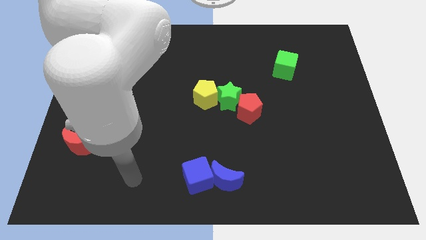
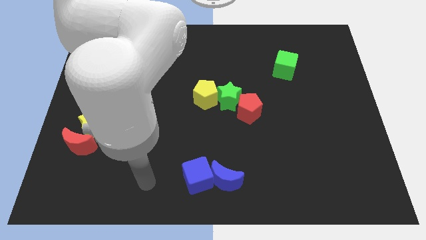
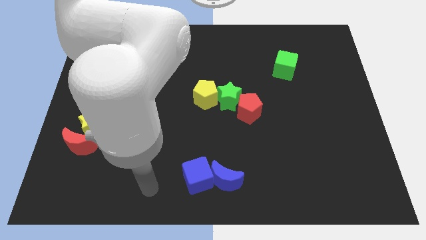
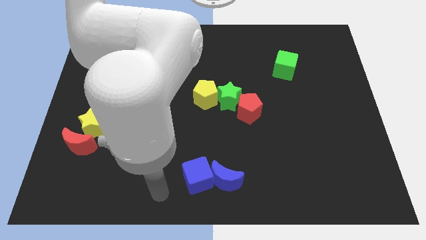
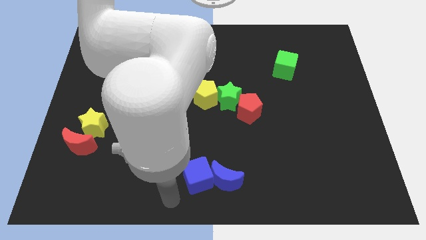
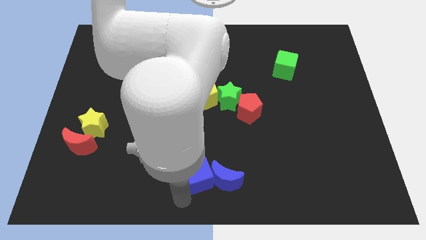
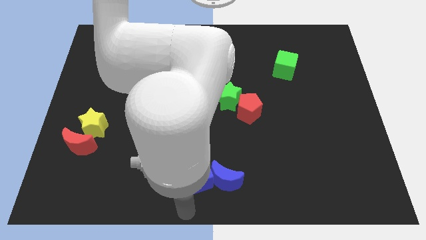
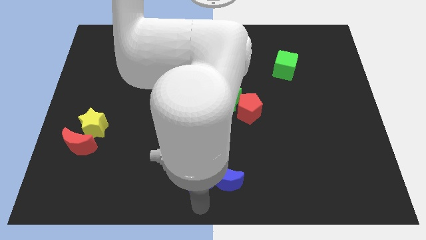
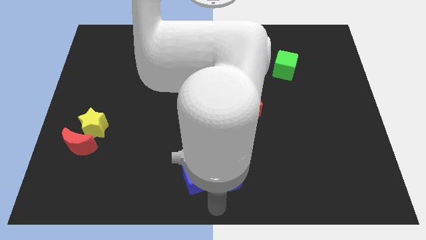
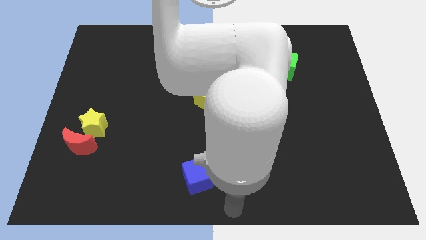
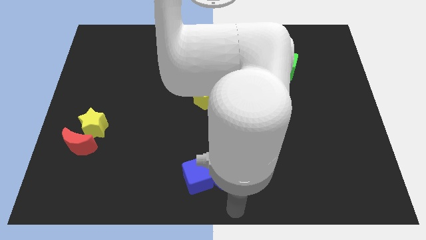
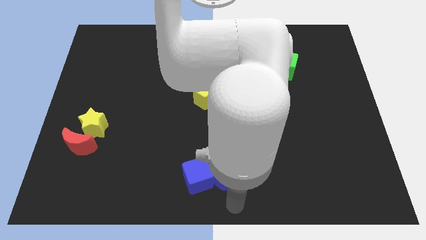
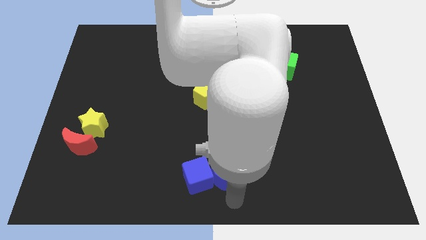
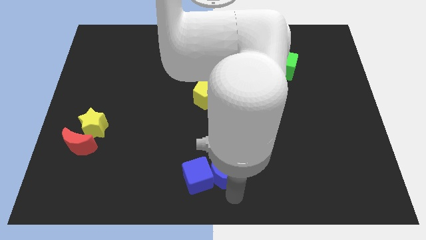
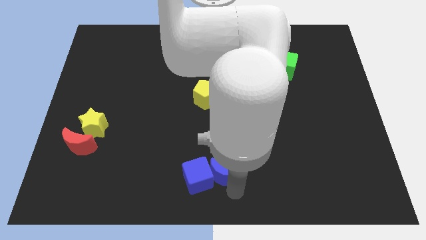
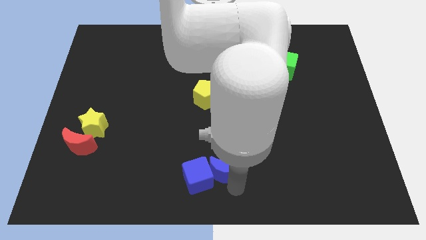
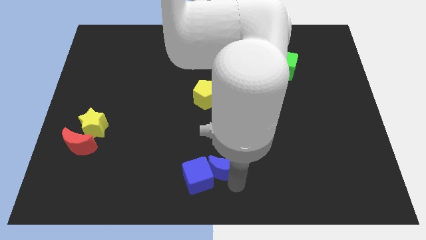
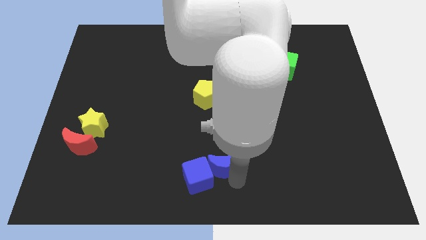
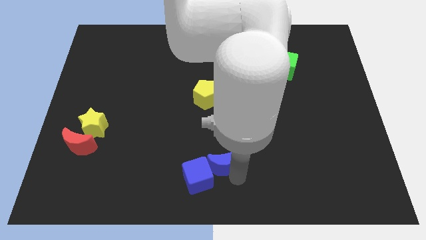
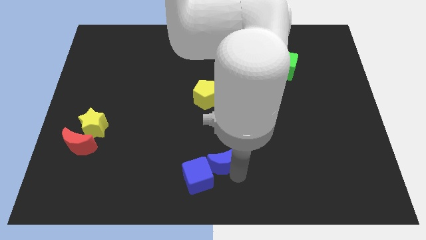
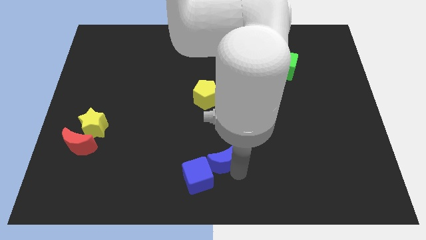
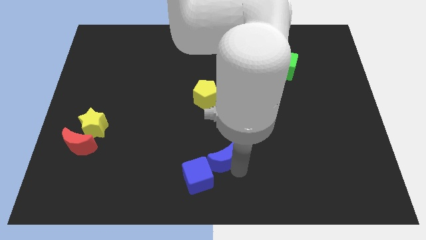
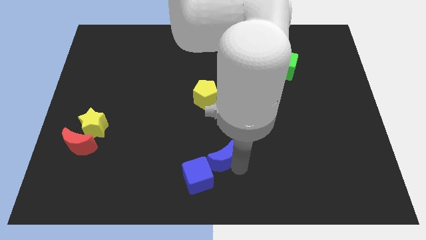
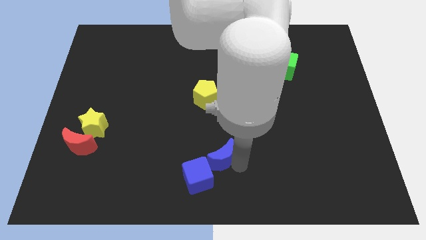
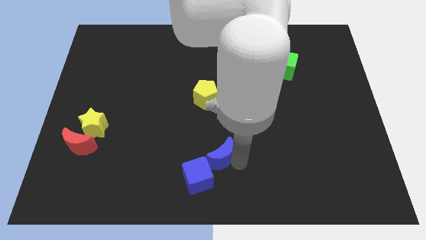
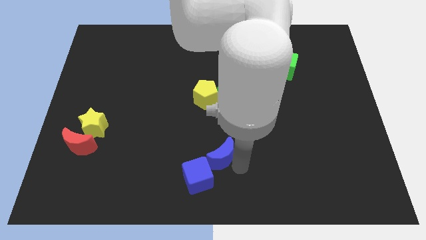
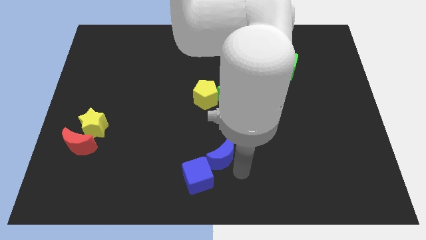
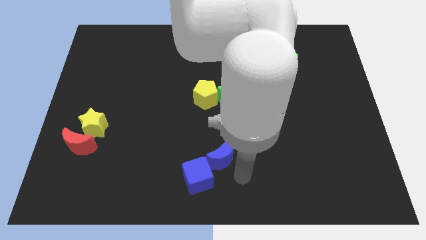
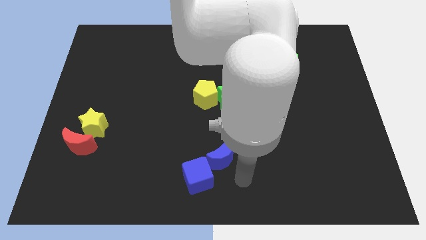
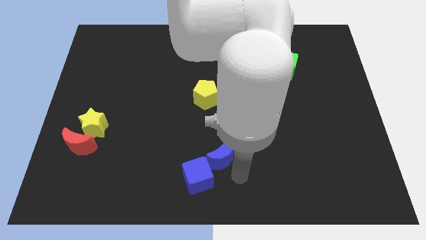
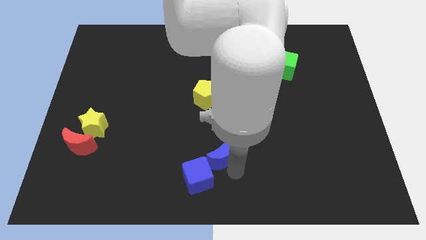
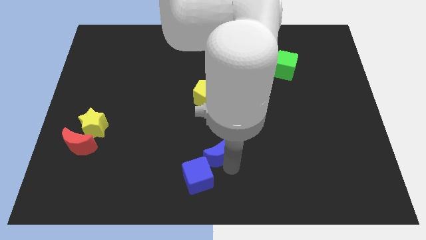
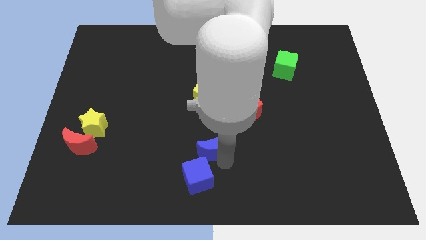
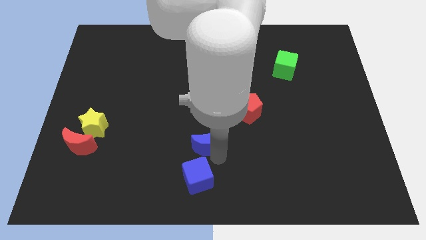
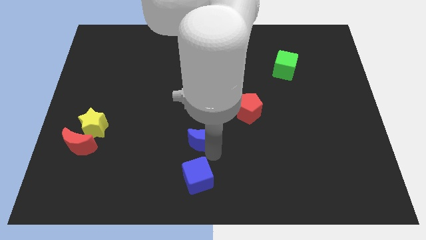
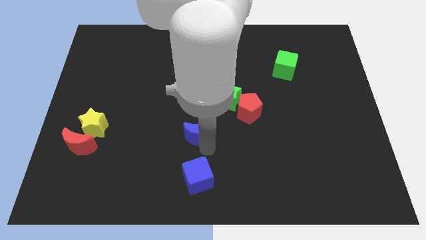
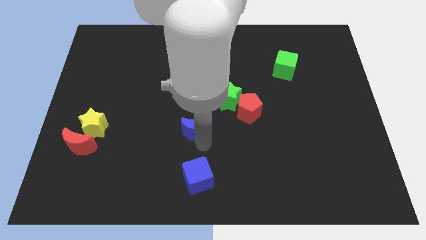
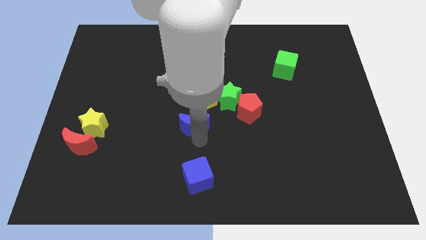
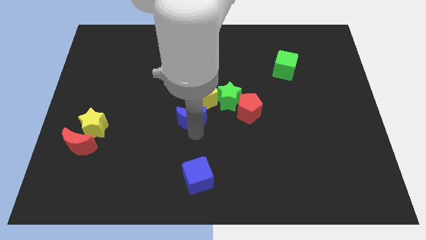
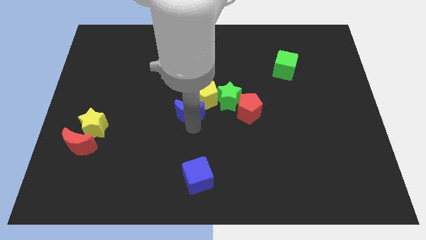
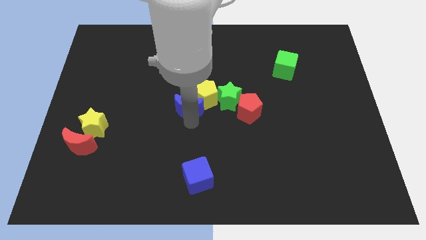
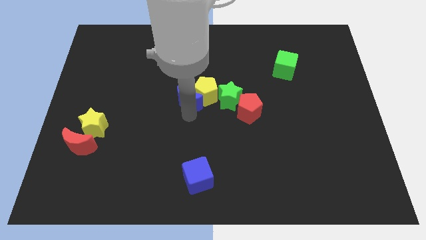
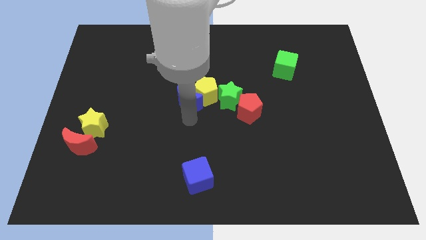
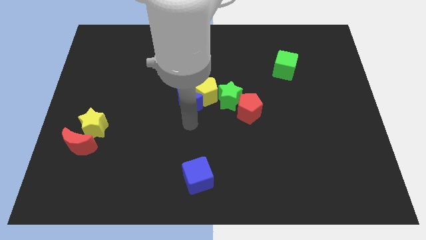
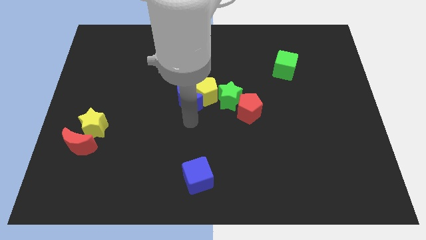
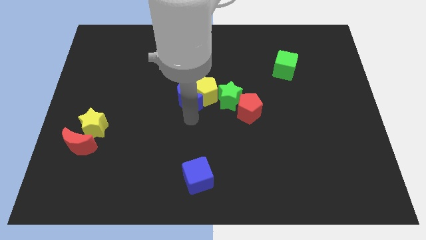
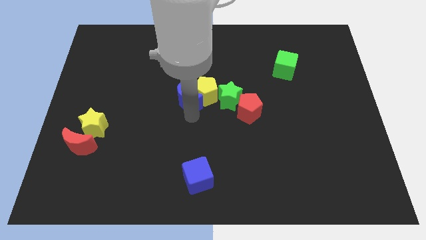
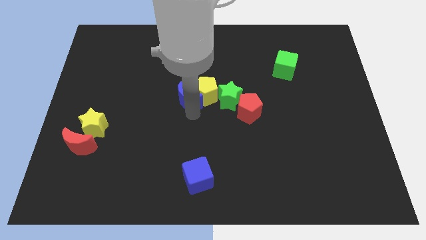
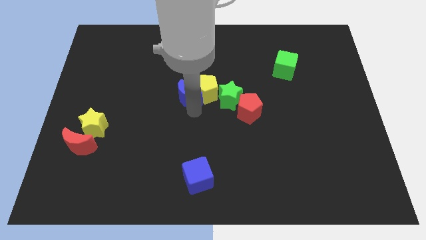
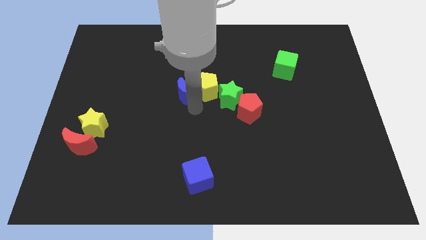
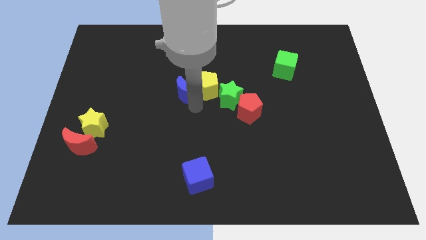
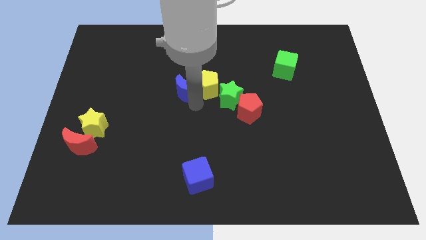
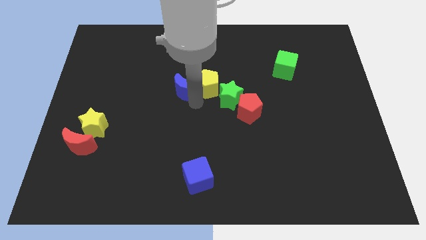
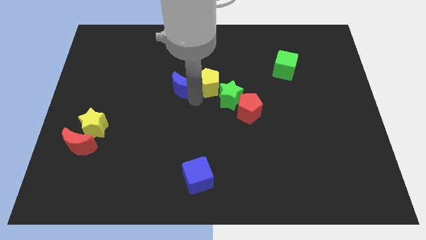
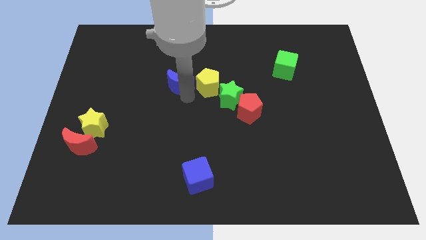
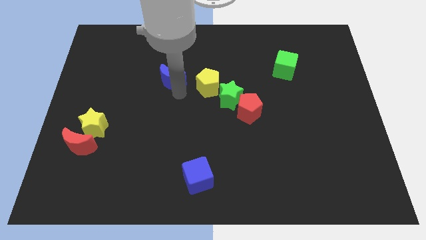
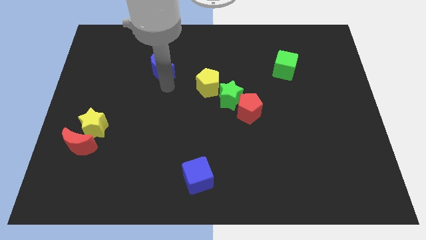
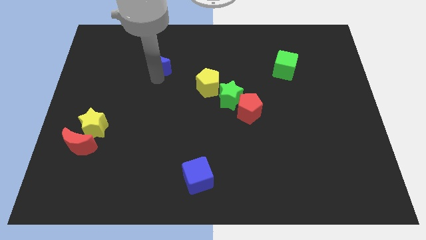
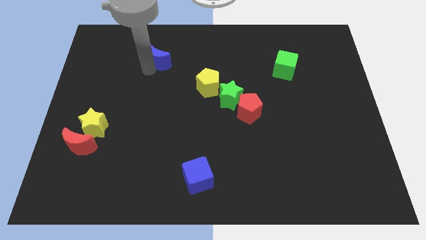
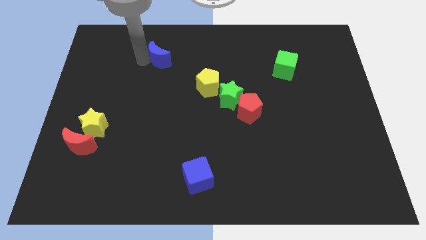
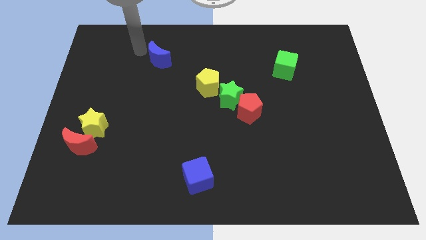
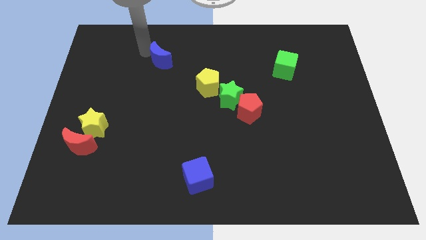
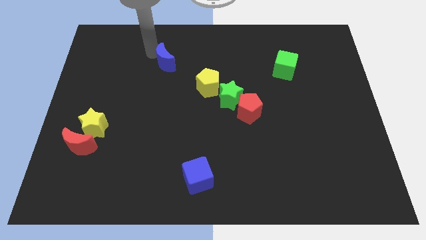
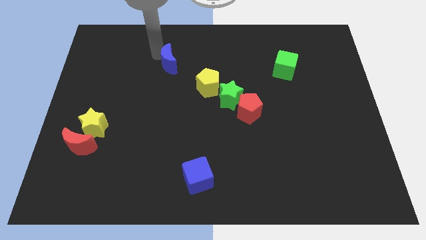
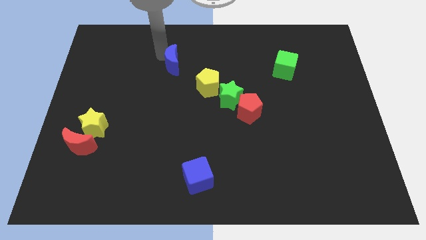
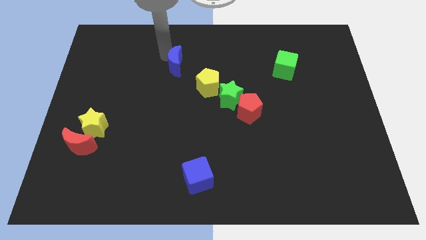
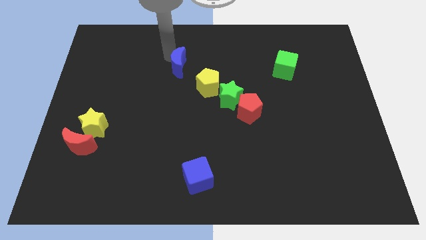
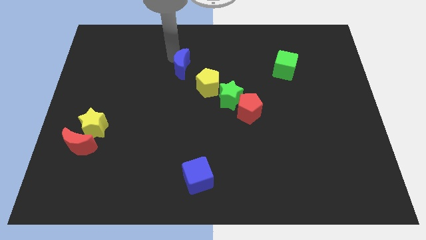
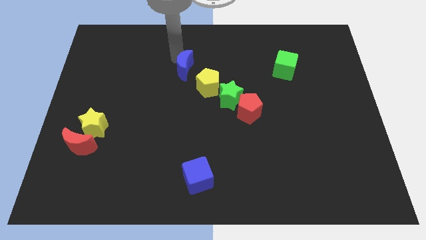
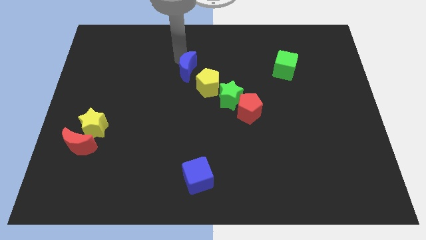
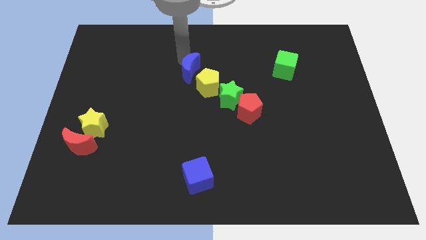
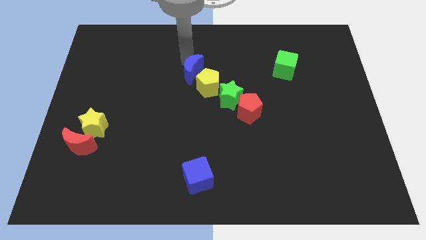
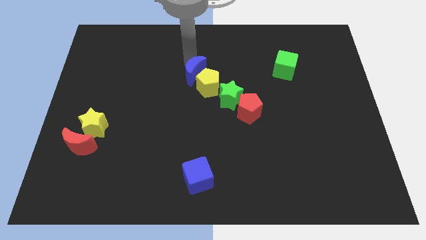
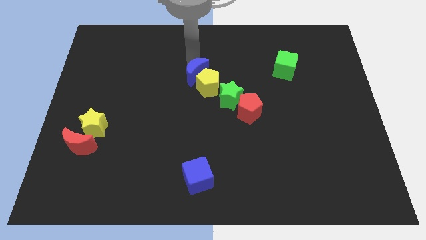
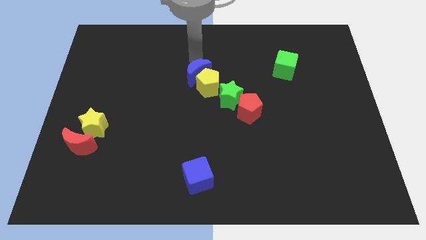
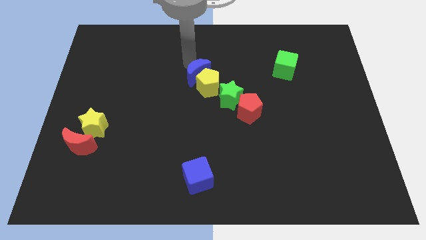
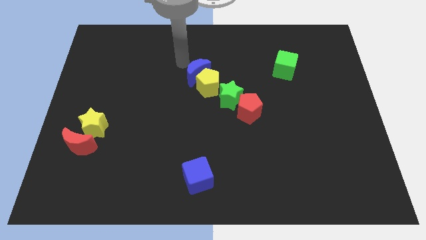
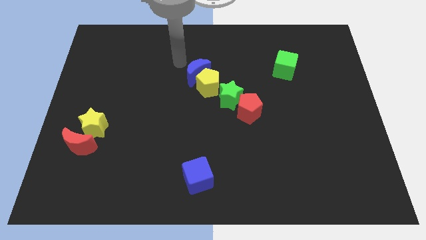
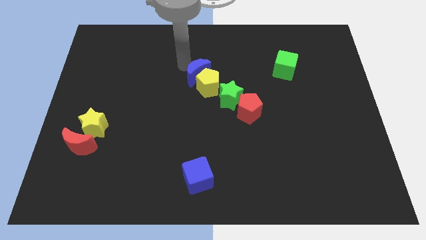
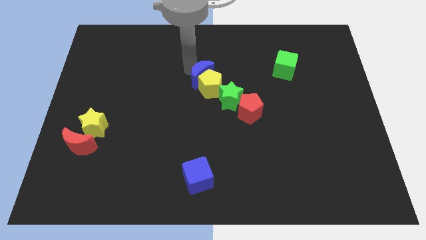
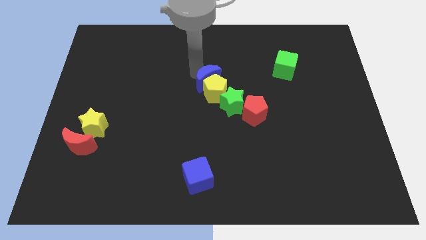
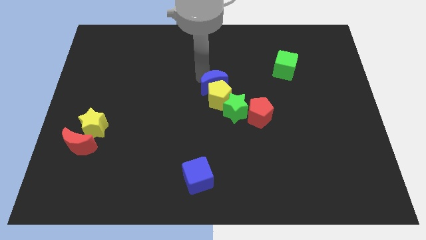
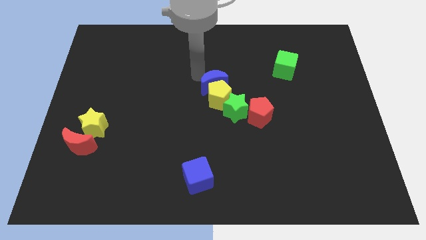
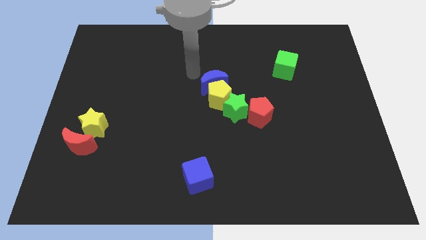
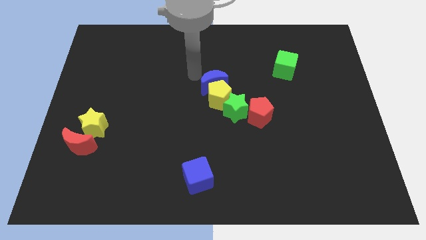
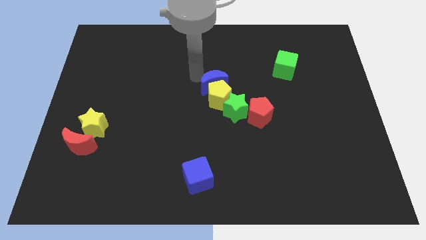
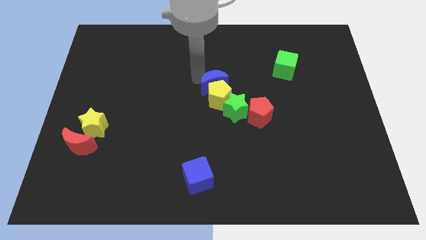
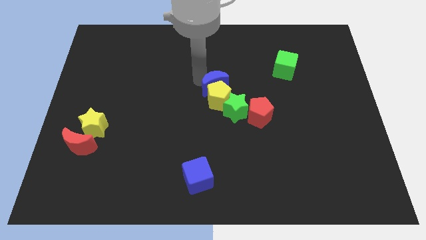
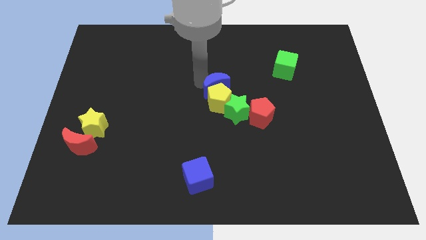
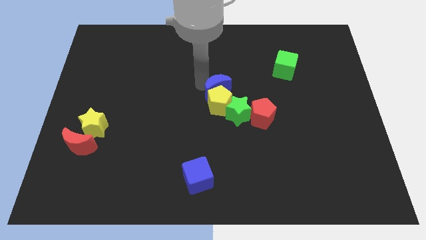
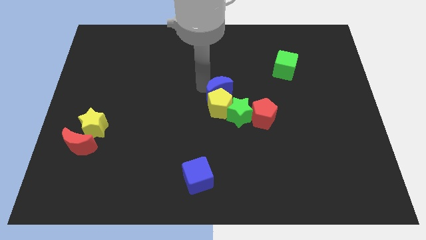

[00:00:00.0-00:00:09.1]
slide the blue moon to the top left of the red pentagon
